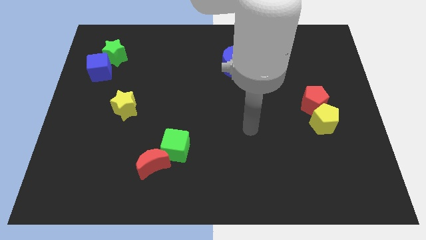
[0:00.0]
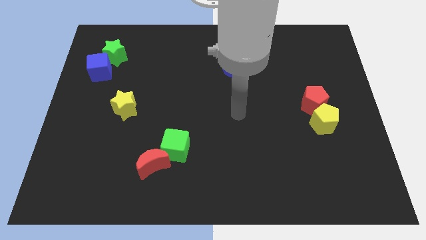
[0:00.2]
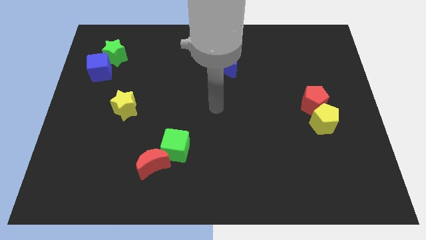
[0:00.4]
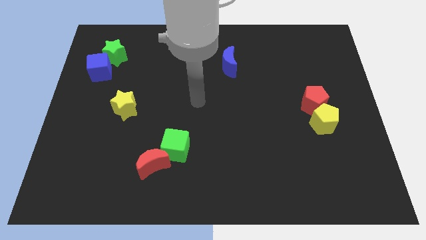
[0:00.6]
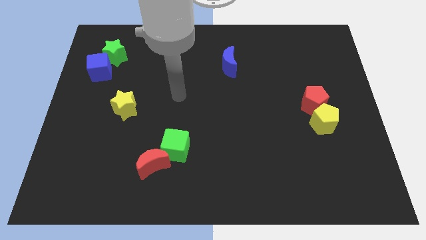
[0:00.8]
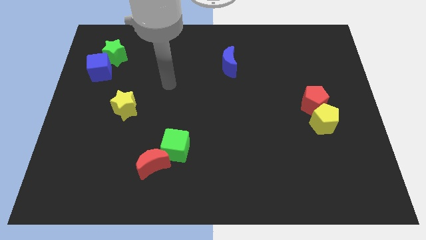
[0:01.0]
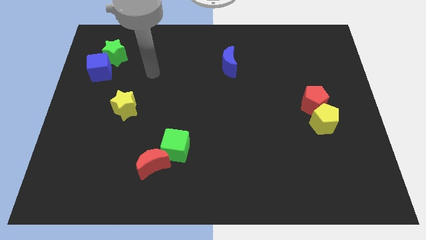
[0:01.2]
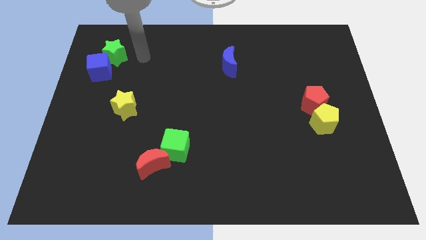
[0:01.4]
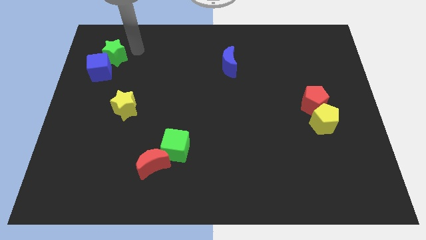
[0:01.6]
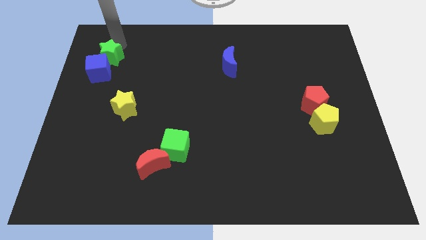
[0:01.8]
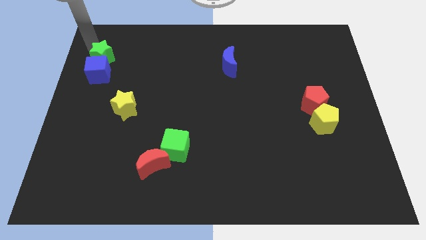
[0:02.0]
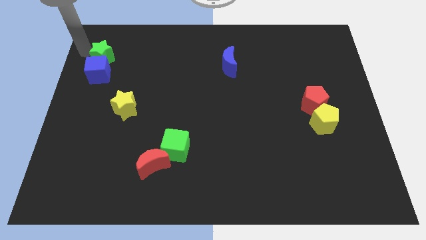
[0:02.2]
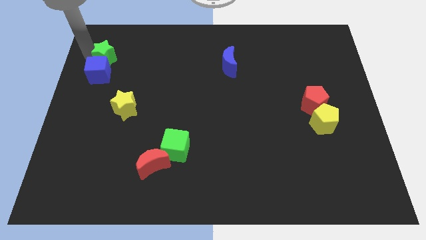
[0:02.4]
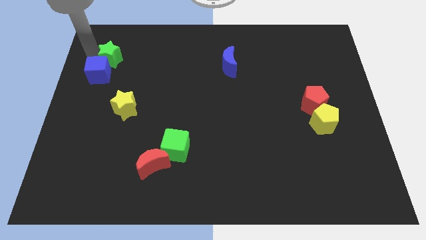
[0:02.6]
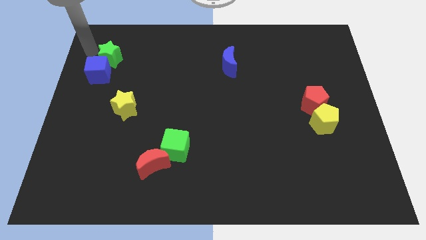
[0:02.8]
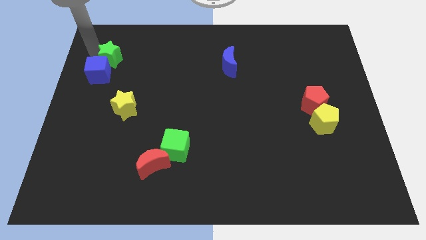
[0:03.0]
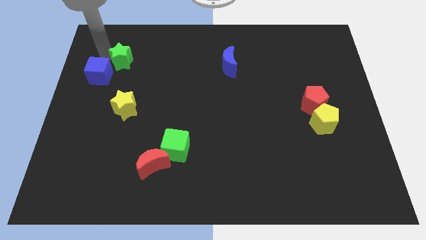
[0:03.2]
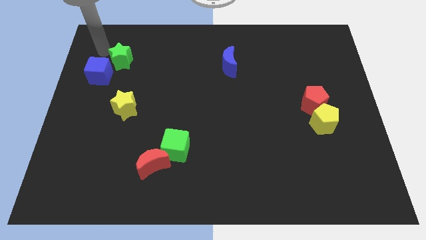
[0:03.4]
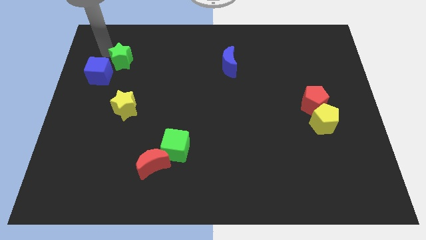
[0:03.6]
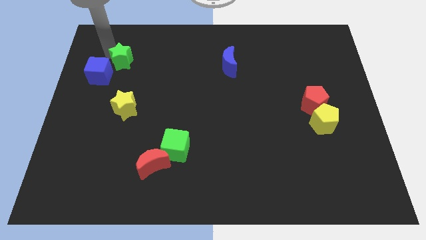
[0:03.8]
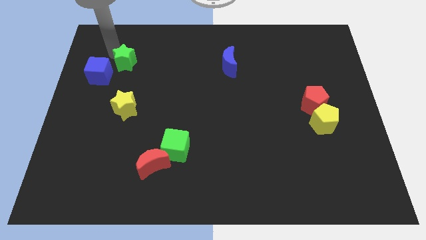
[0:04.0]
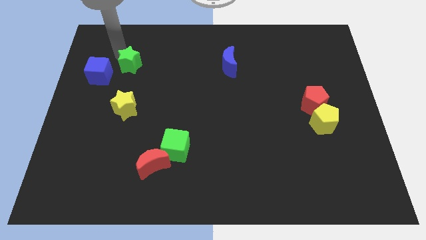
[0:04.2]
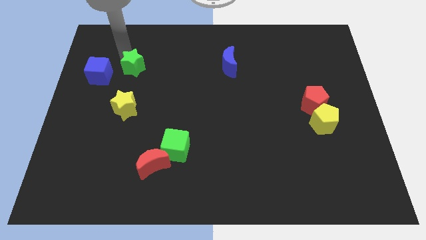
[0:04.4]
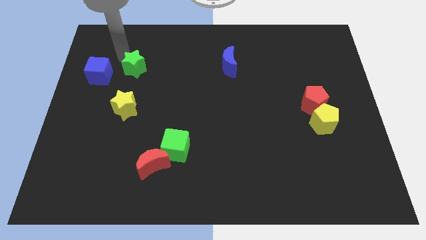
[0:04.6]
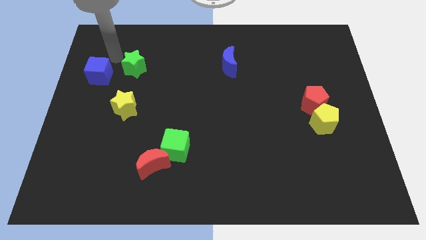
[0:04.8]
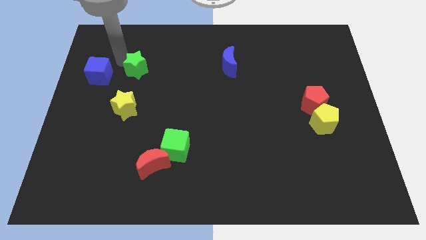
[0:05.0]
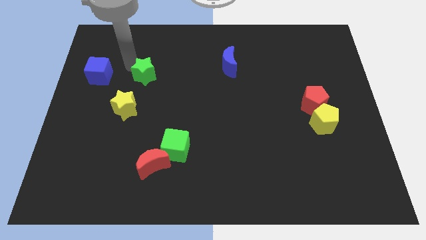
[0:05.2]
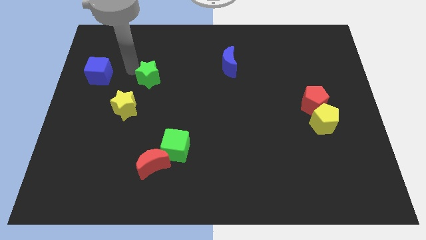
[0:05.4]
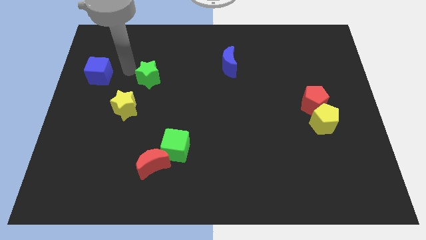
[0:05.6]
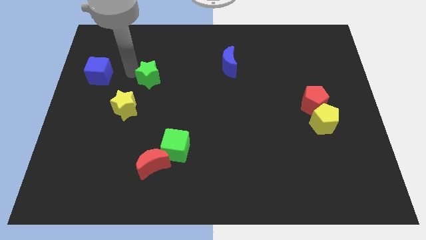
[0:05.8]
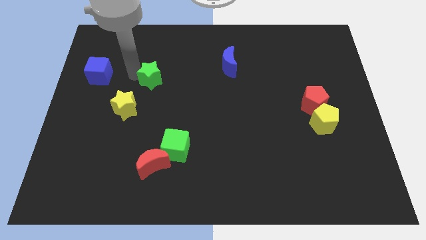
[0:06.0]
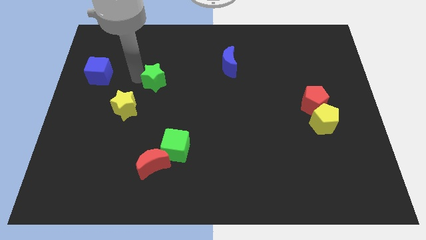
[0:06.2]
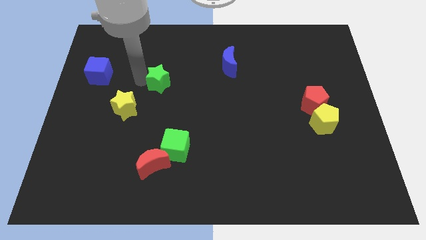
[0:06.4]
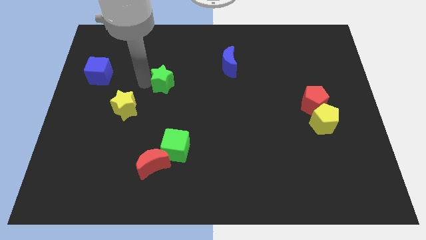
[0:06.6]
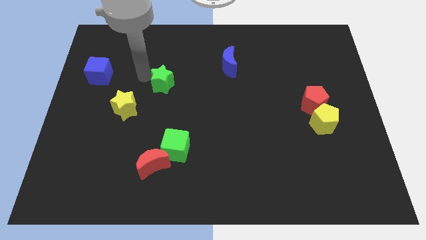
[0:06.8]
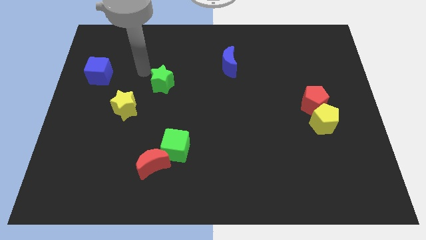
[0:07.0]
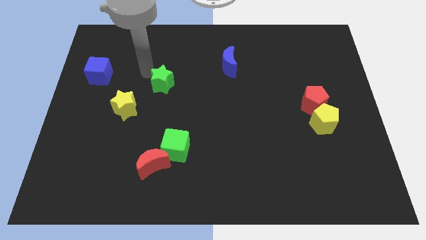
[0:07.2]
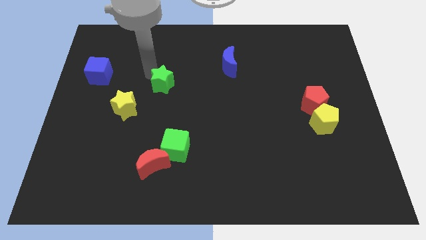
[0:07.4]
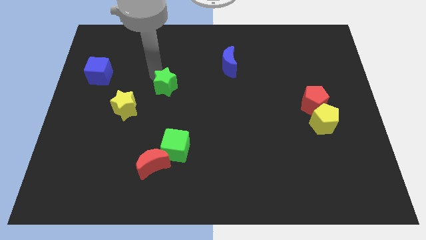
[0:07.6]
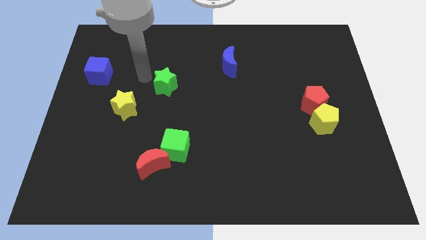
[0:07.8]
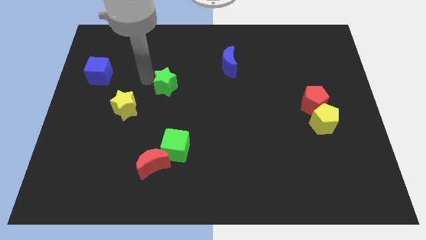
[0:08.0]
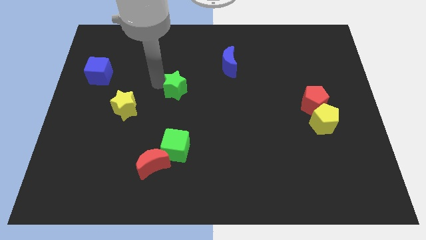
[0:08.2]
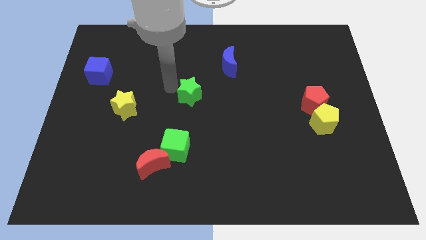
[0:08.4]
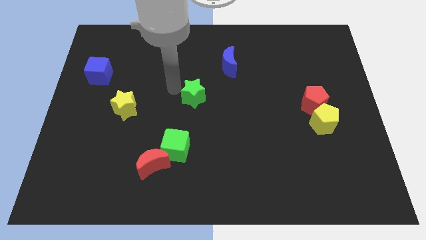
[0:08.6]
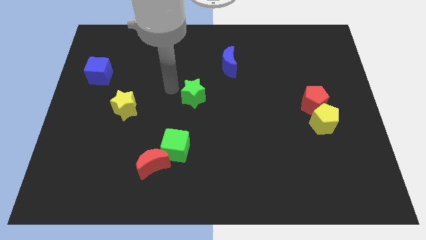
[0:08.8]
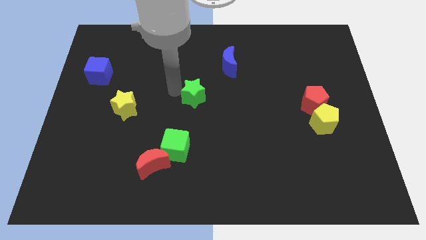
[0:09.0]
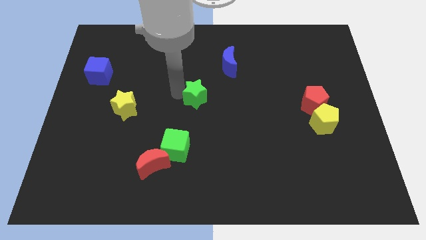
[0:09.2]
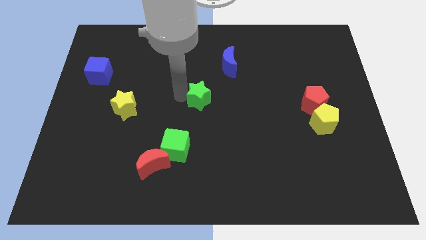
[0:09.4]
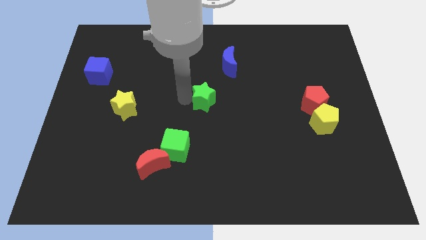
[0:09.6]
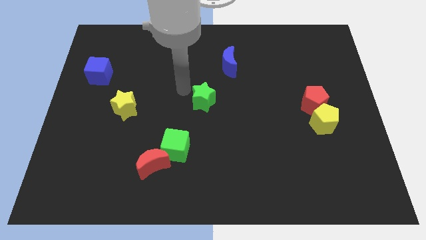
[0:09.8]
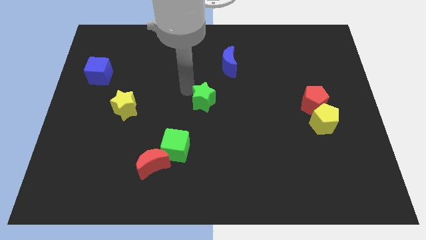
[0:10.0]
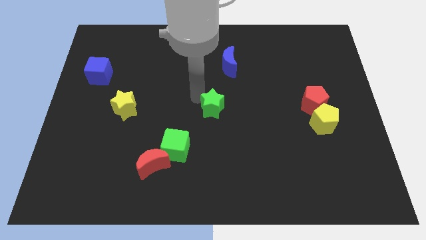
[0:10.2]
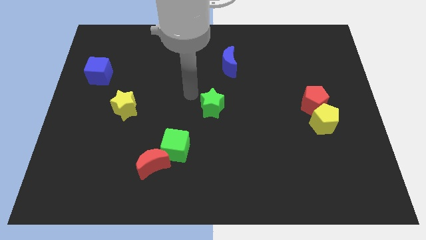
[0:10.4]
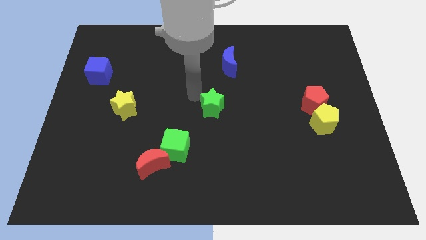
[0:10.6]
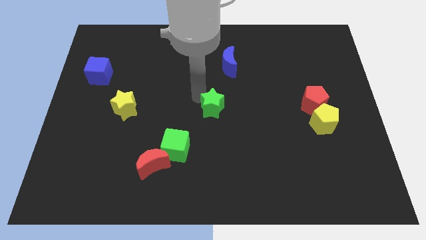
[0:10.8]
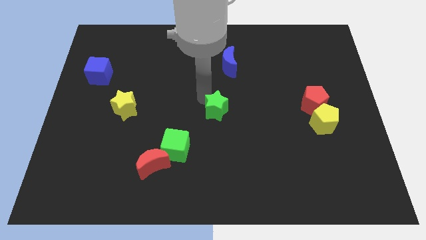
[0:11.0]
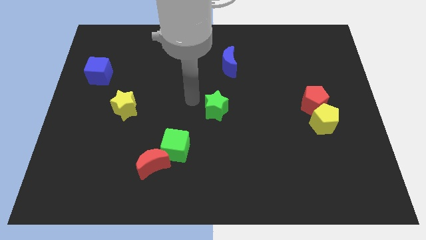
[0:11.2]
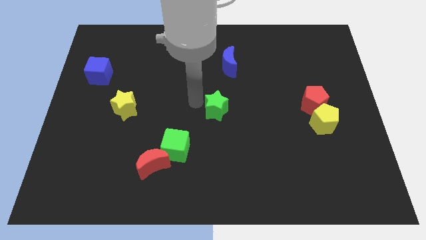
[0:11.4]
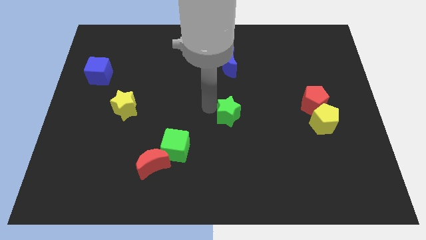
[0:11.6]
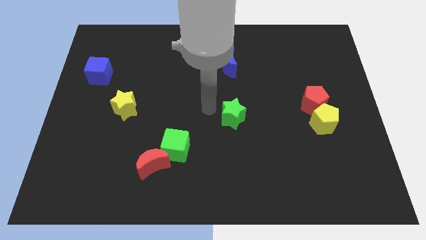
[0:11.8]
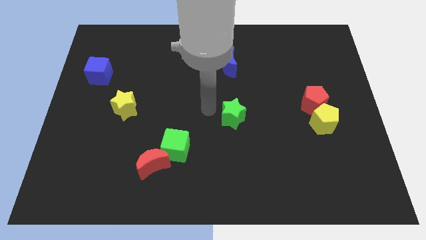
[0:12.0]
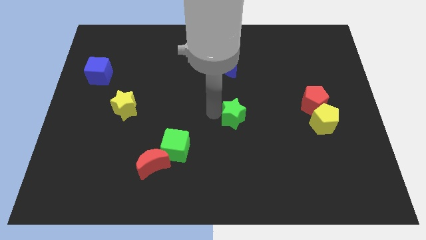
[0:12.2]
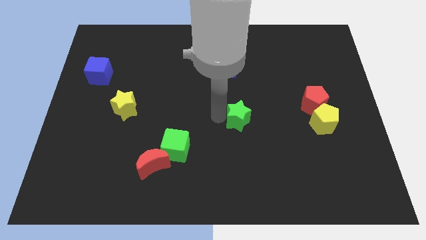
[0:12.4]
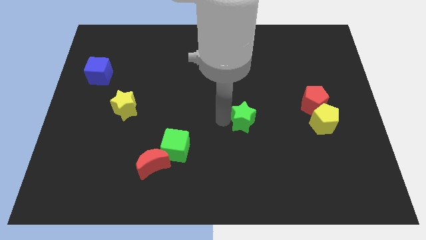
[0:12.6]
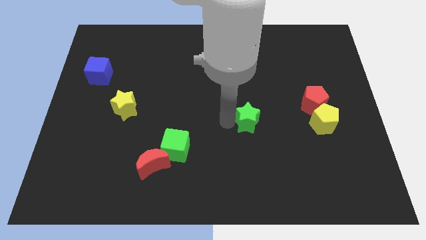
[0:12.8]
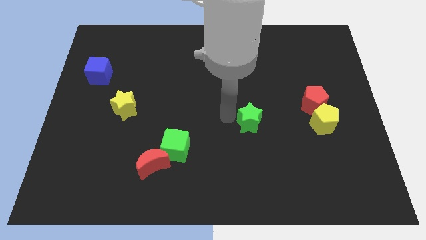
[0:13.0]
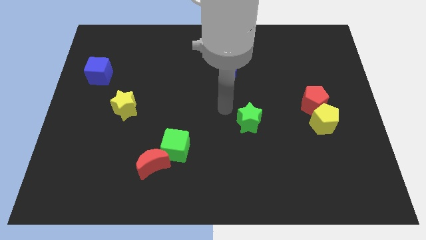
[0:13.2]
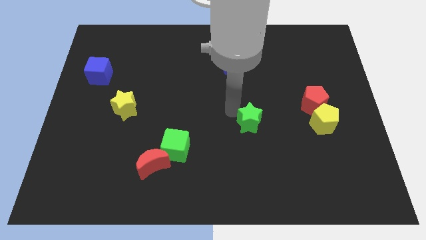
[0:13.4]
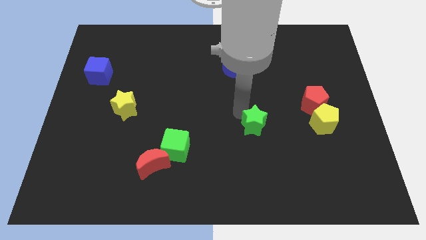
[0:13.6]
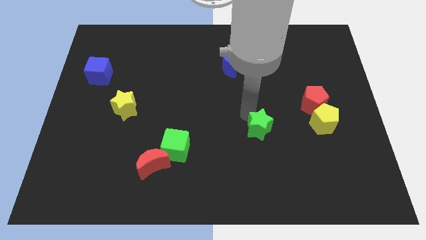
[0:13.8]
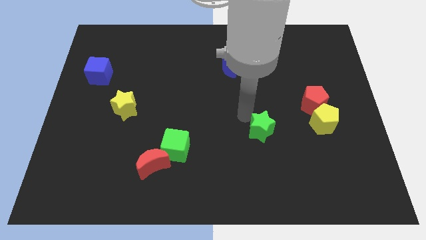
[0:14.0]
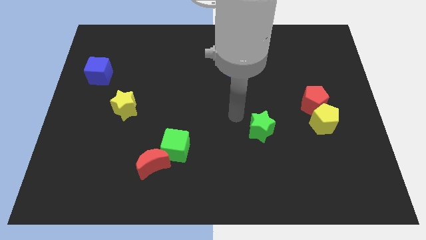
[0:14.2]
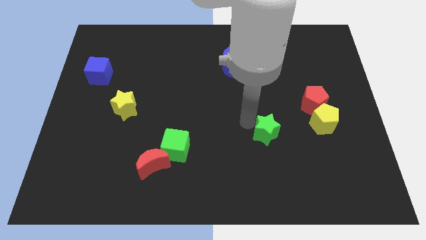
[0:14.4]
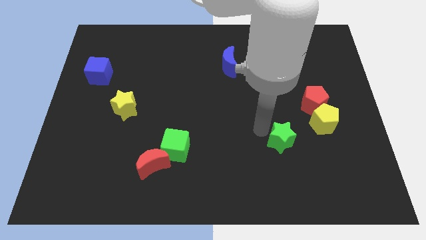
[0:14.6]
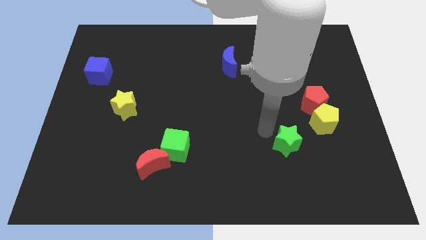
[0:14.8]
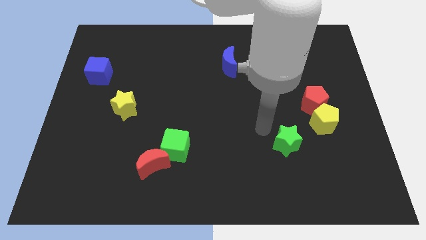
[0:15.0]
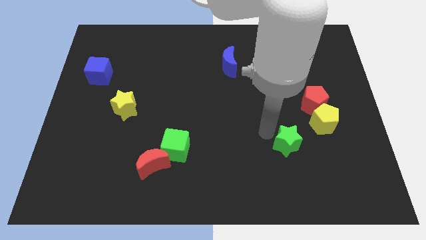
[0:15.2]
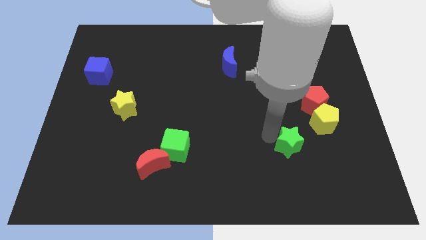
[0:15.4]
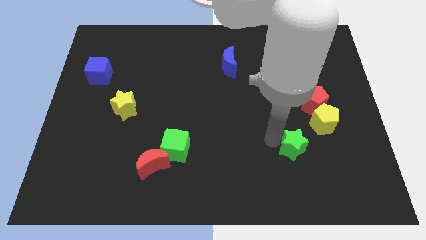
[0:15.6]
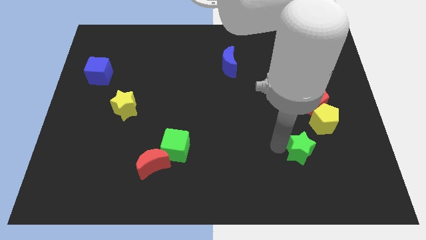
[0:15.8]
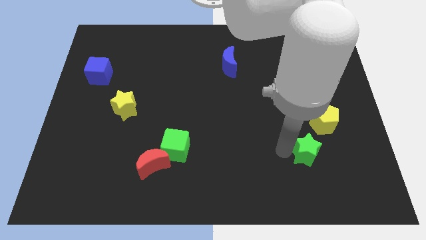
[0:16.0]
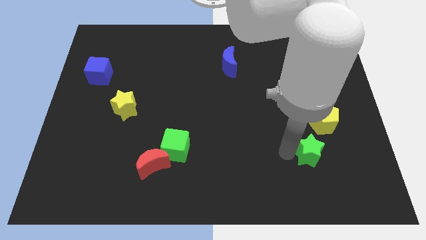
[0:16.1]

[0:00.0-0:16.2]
put the green star to the bottom side of the yellow pentagon
